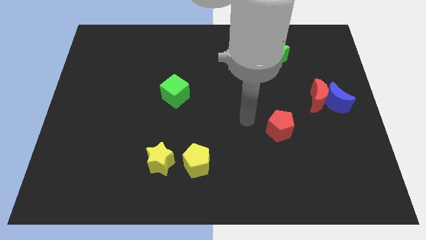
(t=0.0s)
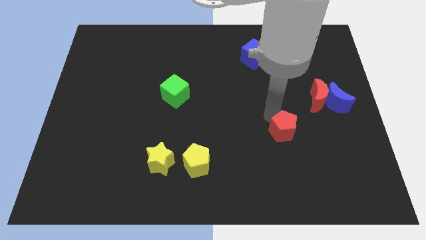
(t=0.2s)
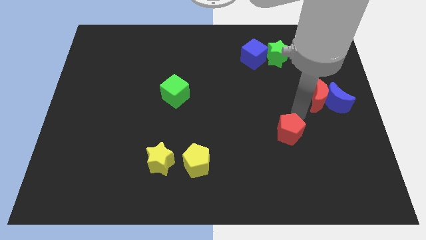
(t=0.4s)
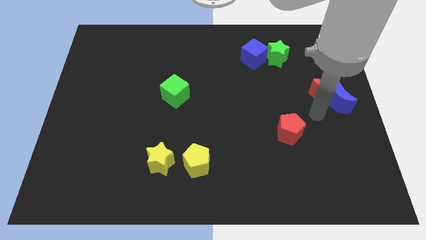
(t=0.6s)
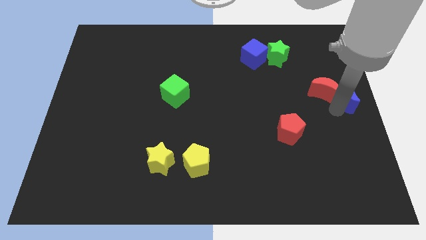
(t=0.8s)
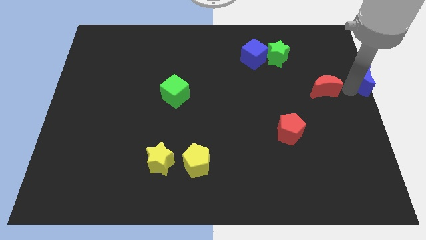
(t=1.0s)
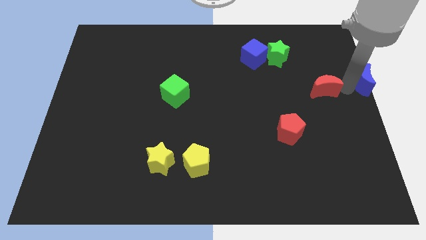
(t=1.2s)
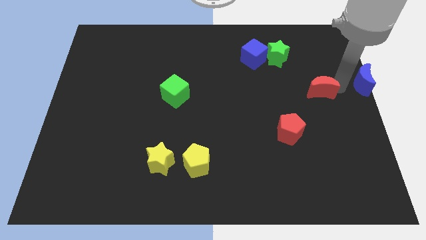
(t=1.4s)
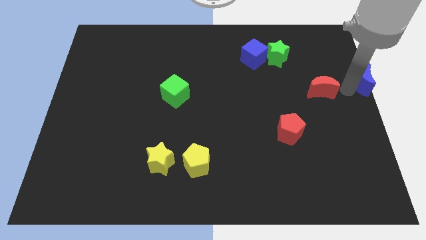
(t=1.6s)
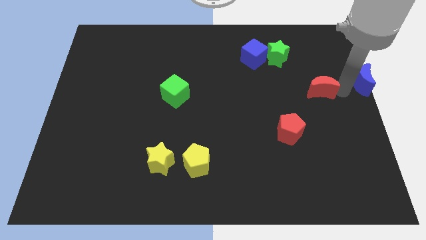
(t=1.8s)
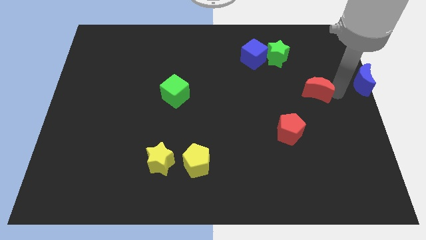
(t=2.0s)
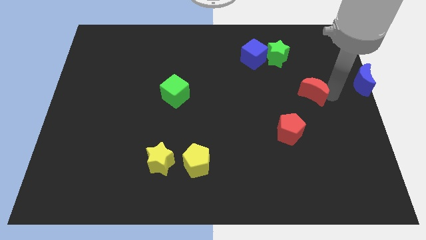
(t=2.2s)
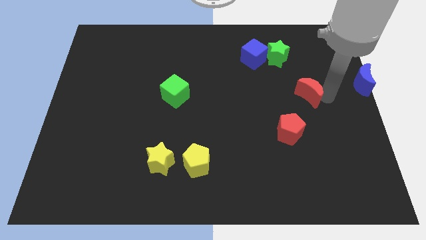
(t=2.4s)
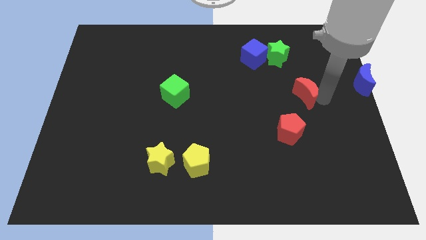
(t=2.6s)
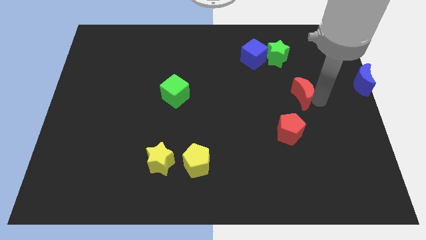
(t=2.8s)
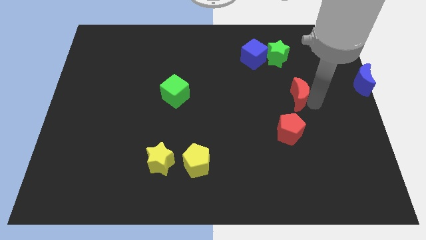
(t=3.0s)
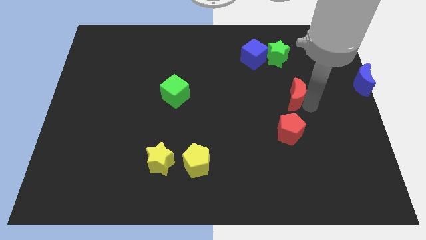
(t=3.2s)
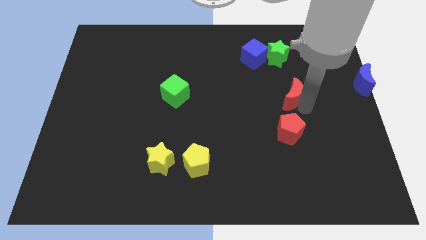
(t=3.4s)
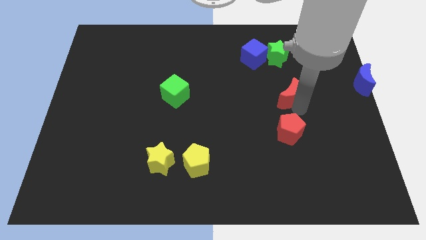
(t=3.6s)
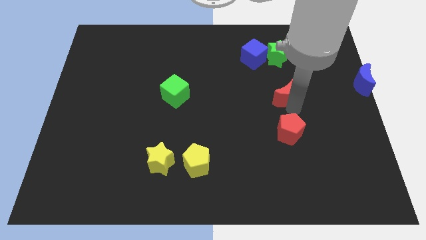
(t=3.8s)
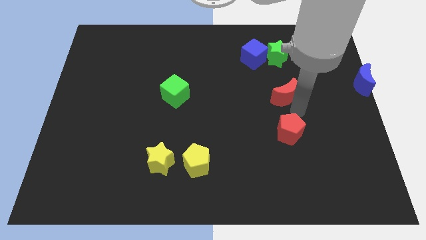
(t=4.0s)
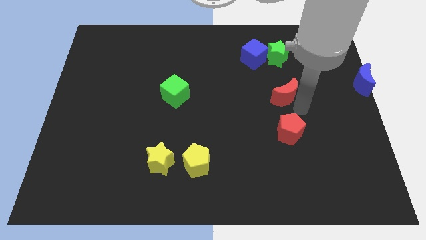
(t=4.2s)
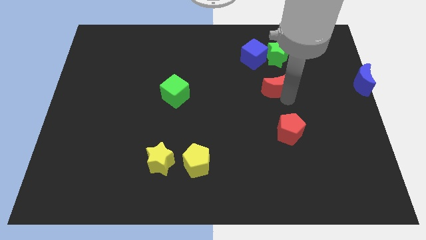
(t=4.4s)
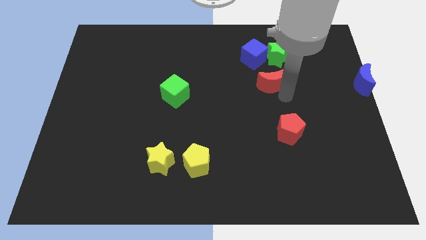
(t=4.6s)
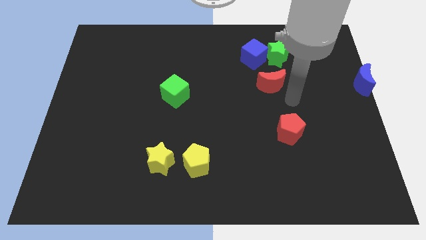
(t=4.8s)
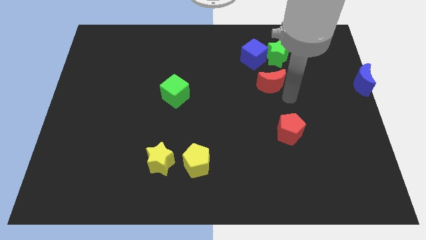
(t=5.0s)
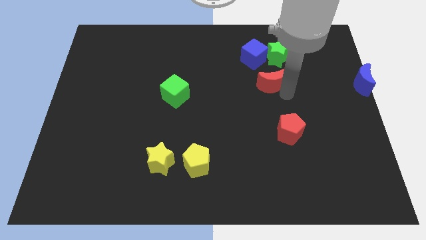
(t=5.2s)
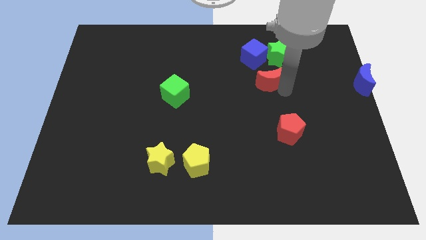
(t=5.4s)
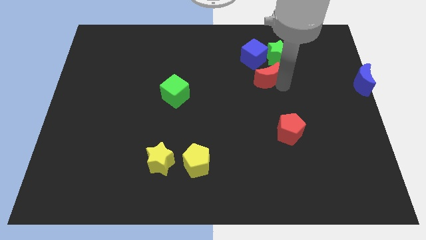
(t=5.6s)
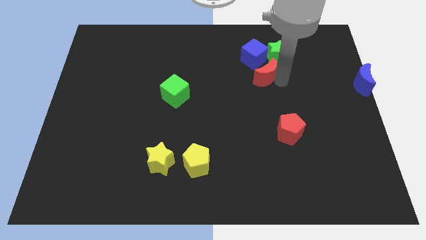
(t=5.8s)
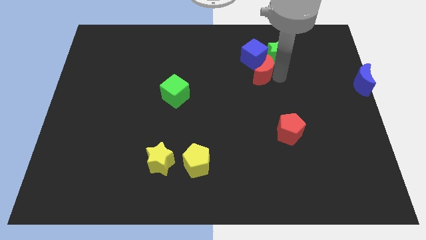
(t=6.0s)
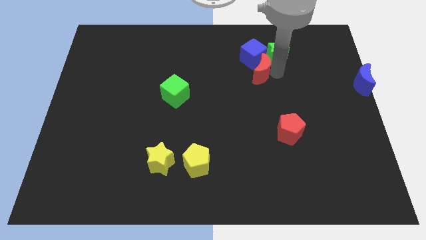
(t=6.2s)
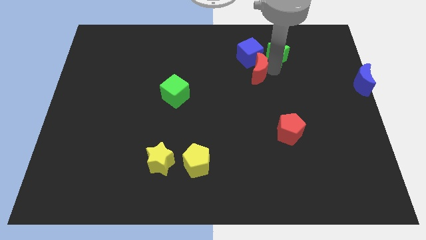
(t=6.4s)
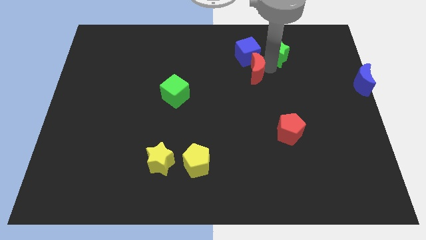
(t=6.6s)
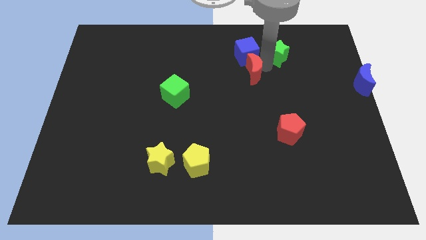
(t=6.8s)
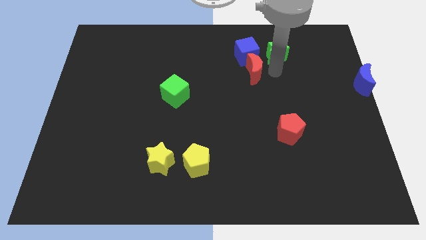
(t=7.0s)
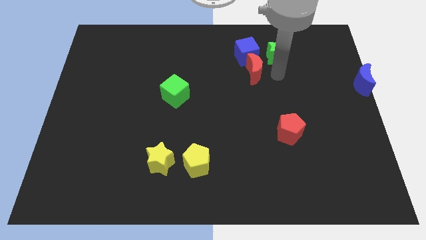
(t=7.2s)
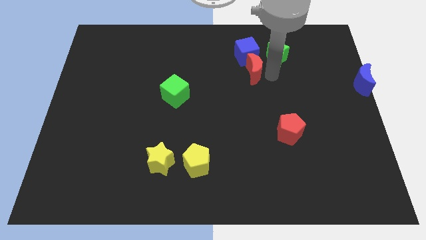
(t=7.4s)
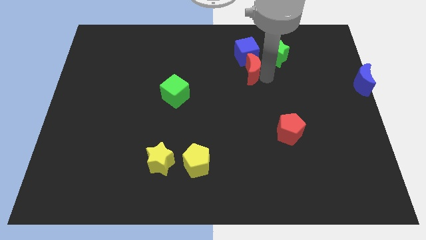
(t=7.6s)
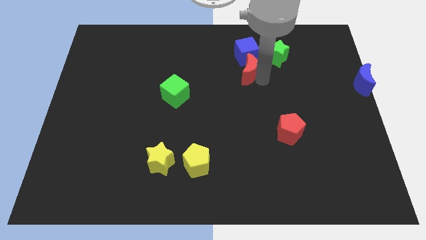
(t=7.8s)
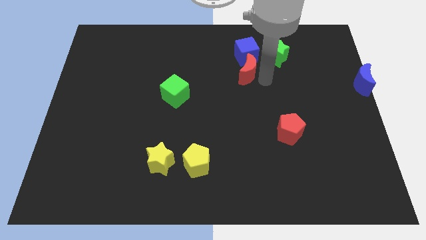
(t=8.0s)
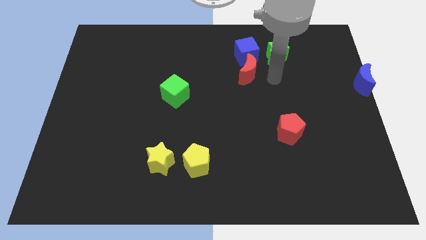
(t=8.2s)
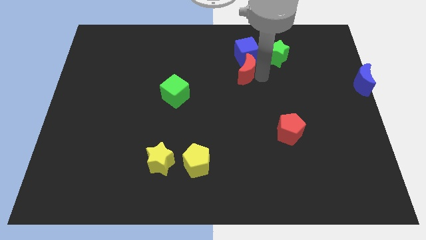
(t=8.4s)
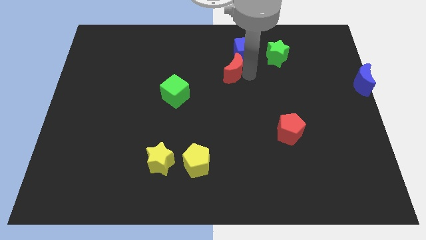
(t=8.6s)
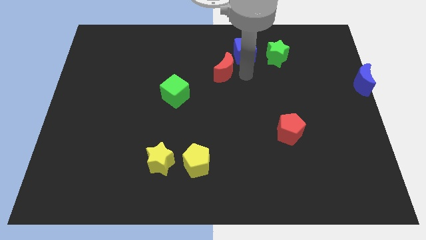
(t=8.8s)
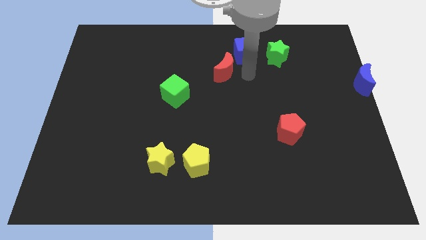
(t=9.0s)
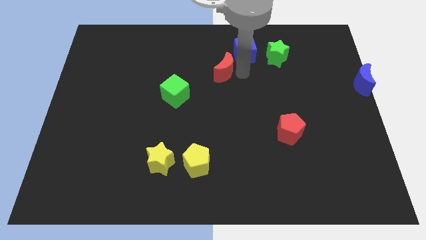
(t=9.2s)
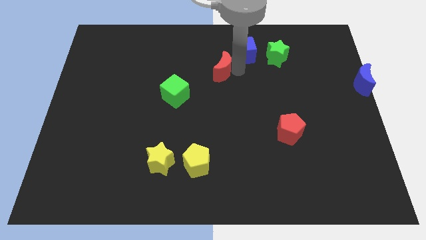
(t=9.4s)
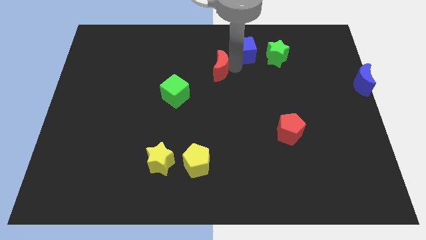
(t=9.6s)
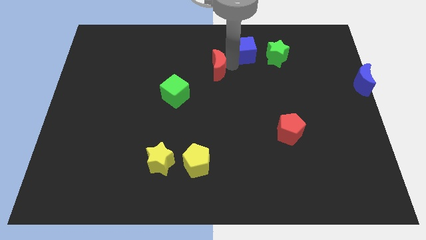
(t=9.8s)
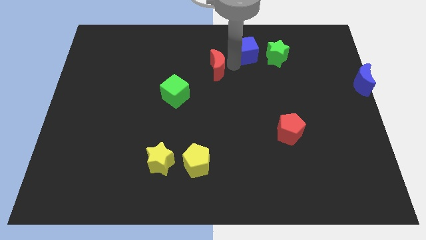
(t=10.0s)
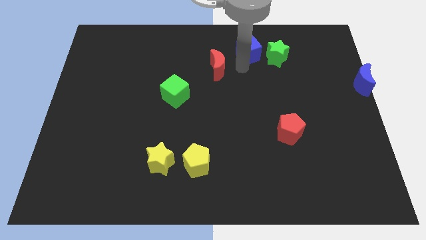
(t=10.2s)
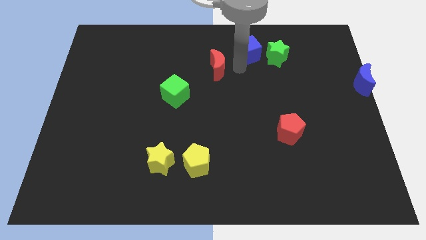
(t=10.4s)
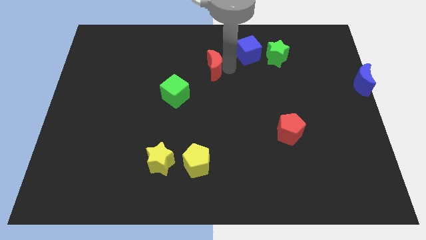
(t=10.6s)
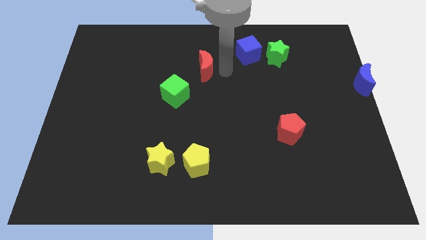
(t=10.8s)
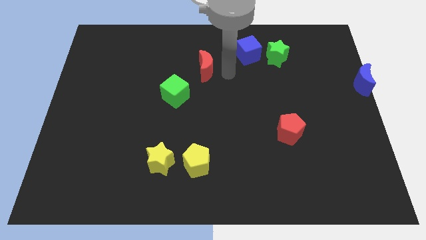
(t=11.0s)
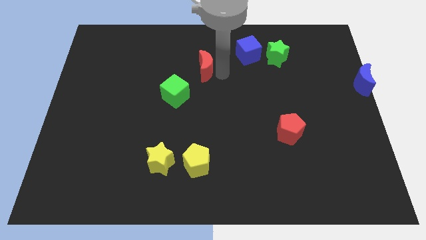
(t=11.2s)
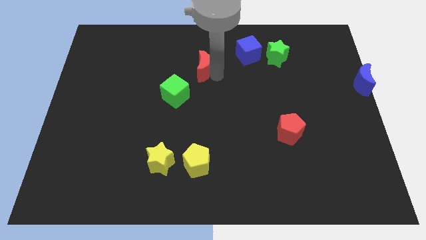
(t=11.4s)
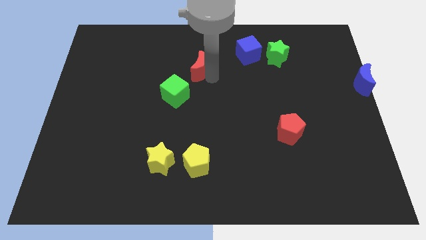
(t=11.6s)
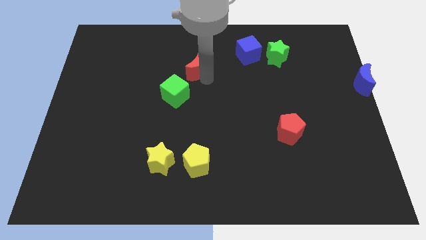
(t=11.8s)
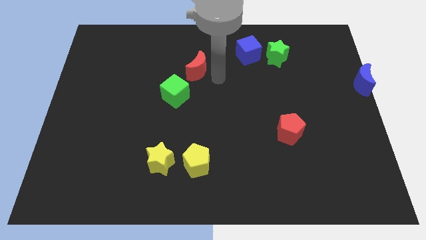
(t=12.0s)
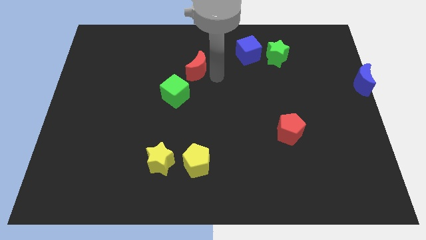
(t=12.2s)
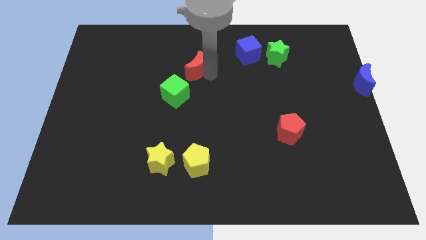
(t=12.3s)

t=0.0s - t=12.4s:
put the red moon to the top side of the green cube

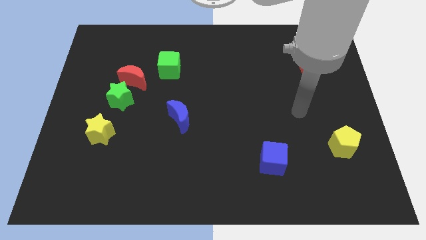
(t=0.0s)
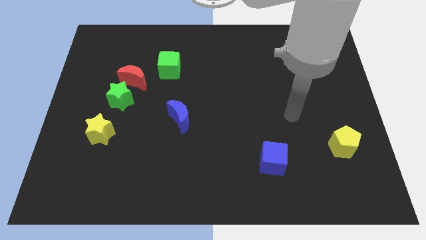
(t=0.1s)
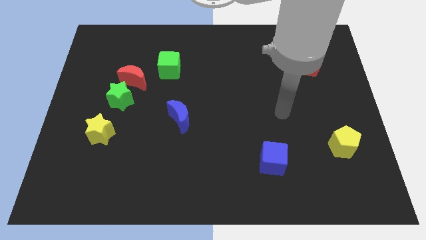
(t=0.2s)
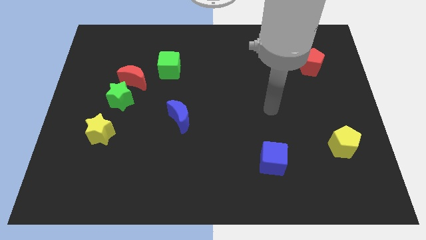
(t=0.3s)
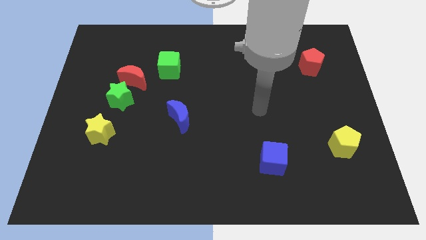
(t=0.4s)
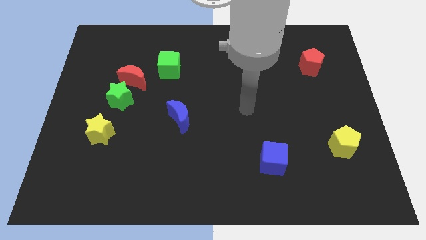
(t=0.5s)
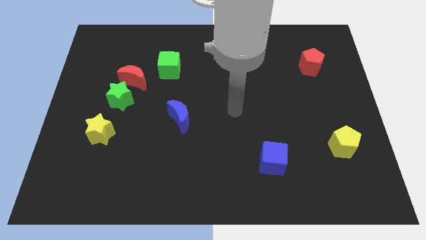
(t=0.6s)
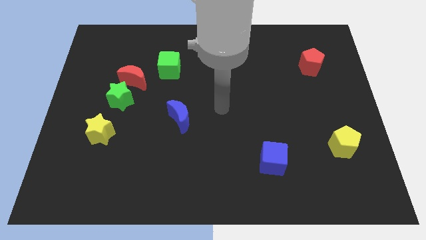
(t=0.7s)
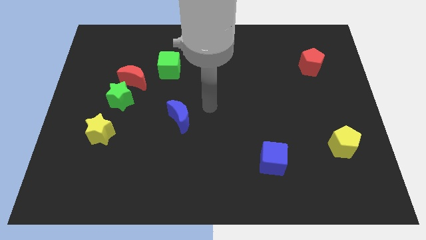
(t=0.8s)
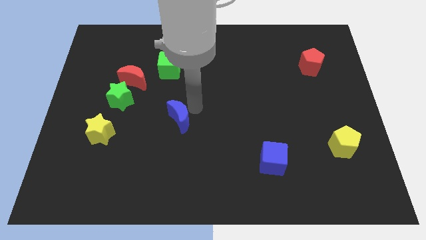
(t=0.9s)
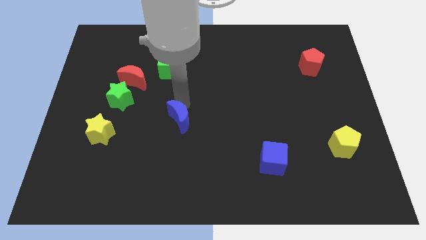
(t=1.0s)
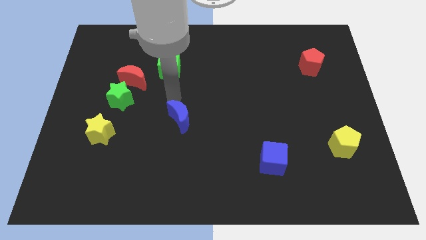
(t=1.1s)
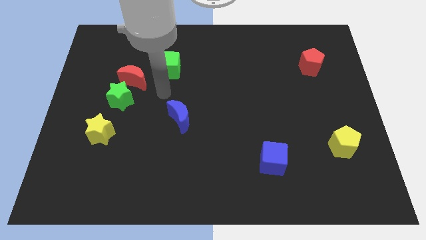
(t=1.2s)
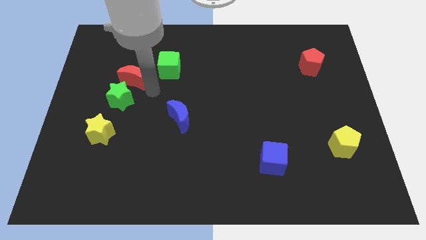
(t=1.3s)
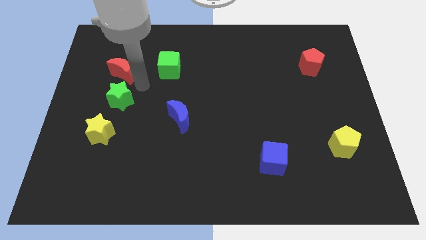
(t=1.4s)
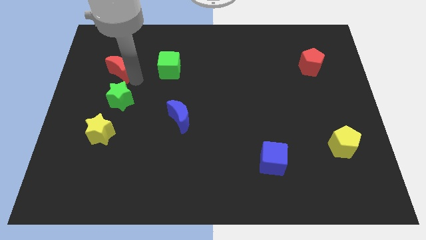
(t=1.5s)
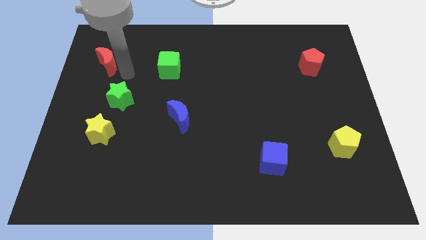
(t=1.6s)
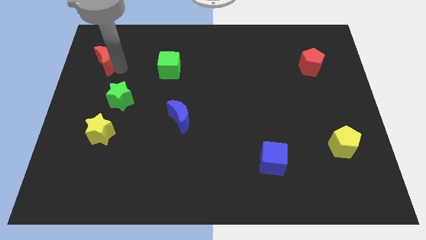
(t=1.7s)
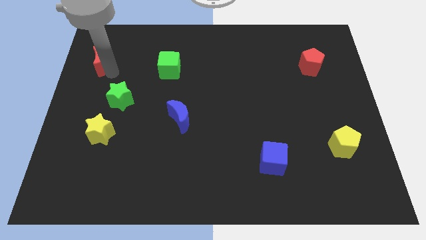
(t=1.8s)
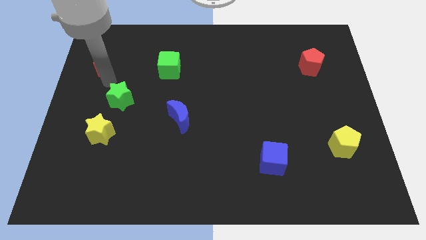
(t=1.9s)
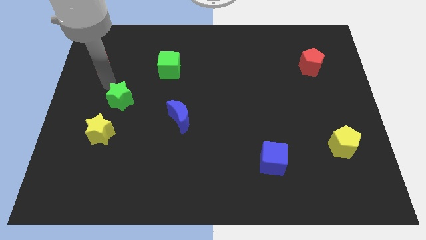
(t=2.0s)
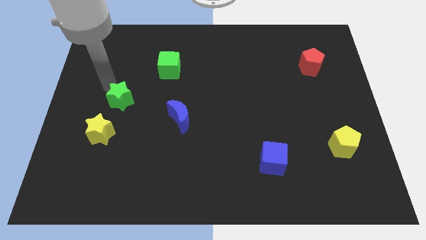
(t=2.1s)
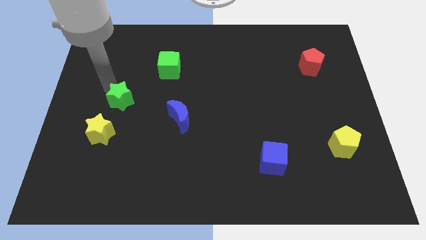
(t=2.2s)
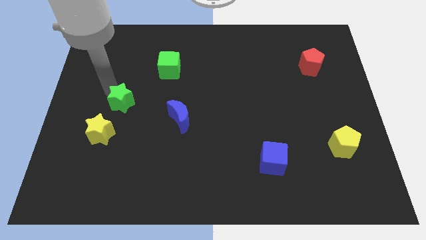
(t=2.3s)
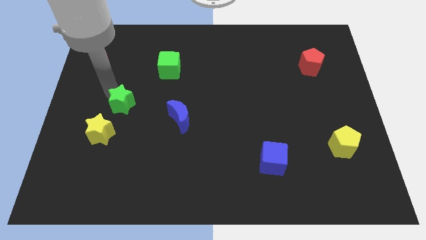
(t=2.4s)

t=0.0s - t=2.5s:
put the green star to the left side of the blue moon
